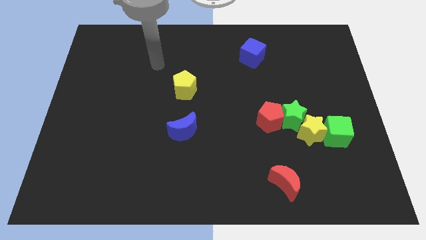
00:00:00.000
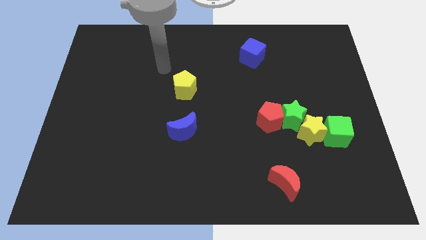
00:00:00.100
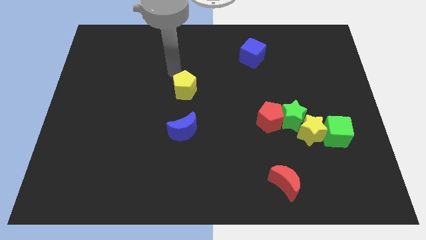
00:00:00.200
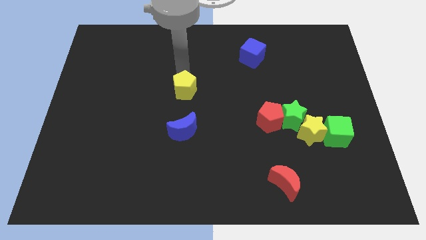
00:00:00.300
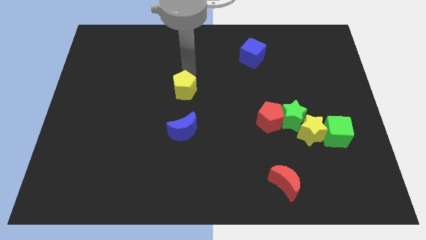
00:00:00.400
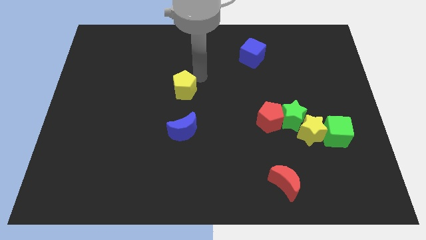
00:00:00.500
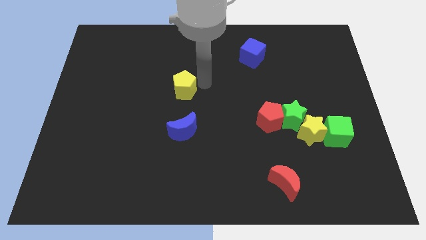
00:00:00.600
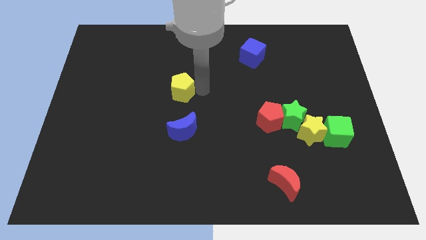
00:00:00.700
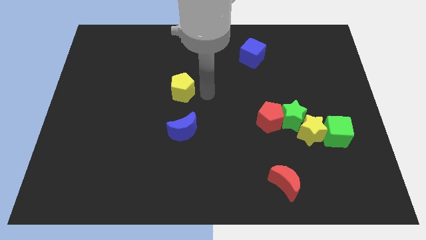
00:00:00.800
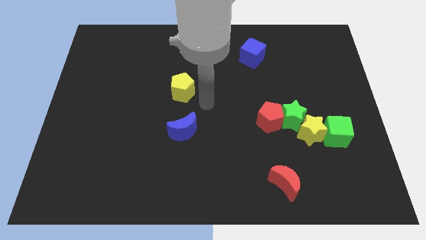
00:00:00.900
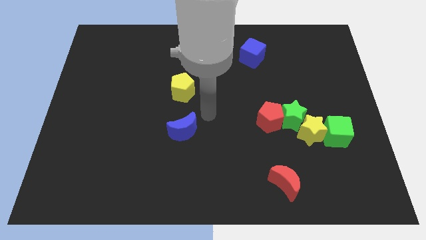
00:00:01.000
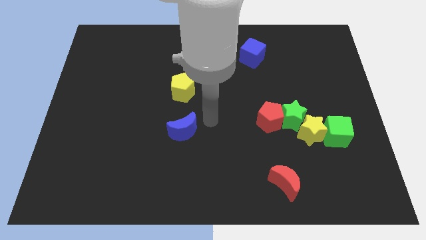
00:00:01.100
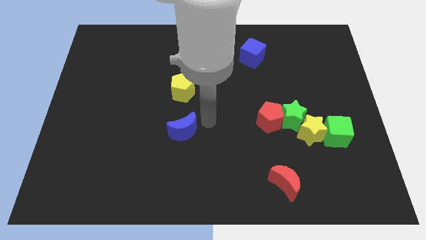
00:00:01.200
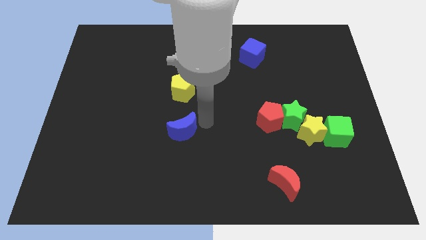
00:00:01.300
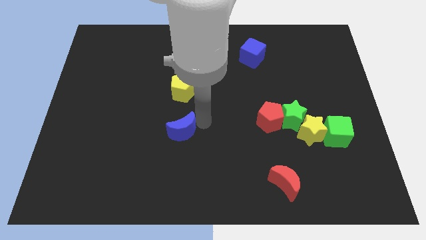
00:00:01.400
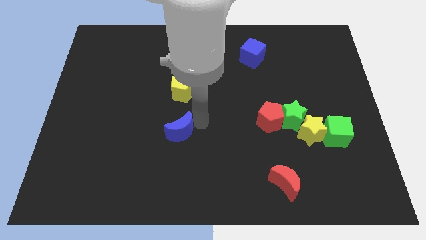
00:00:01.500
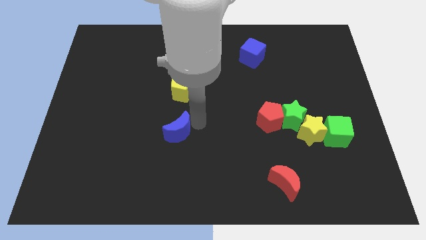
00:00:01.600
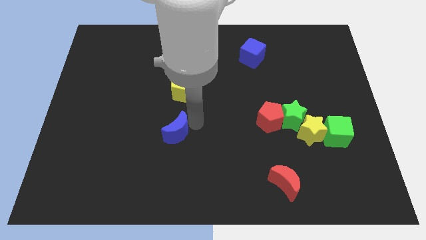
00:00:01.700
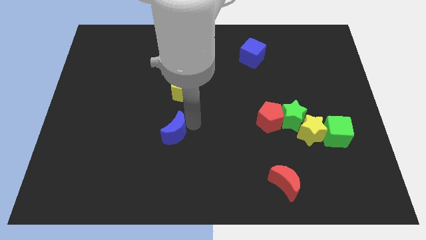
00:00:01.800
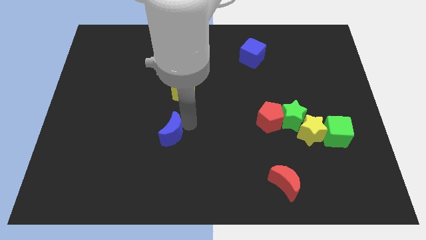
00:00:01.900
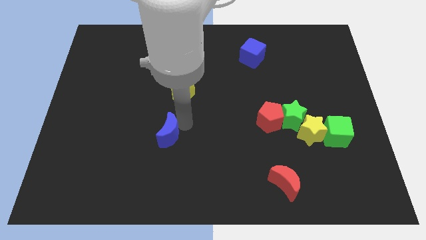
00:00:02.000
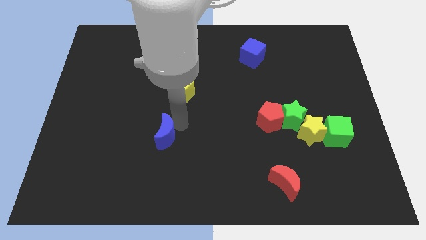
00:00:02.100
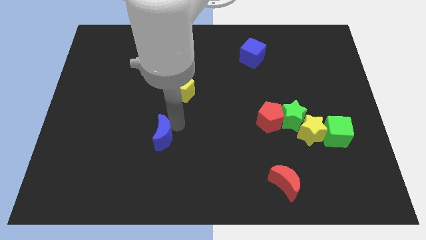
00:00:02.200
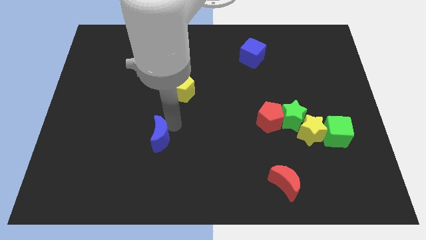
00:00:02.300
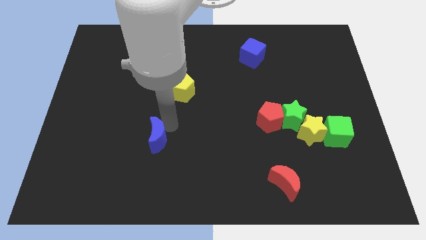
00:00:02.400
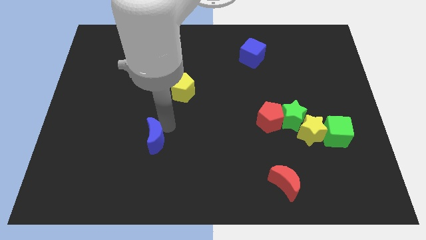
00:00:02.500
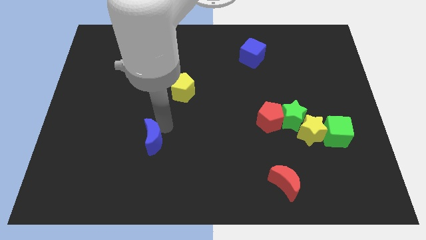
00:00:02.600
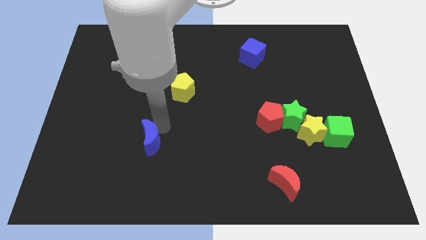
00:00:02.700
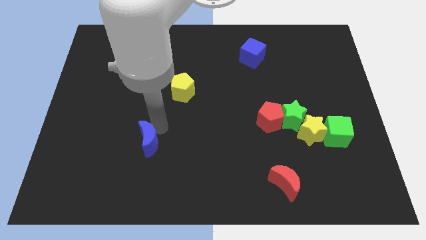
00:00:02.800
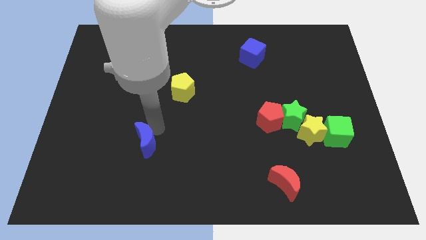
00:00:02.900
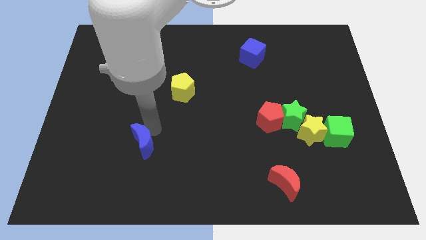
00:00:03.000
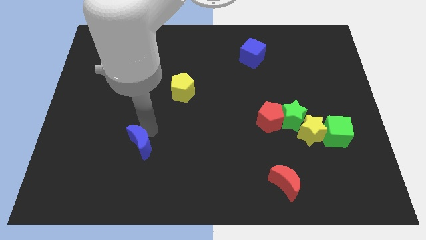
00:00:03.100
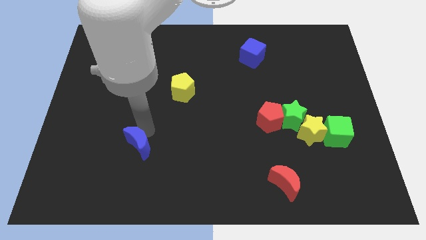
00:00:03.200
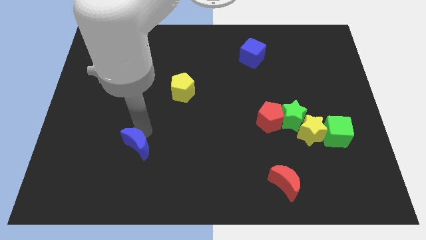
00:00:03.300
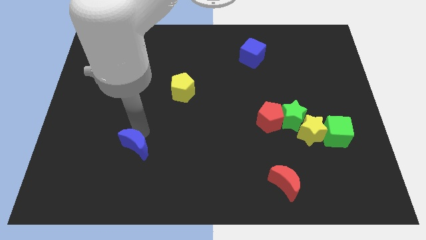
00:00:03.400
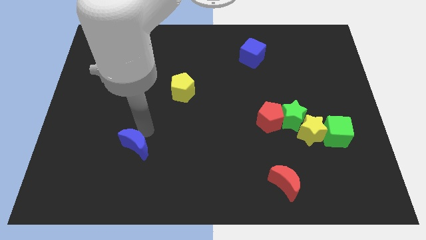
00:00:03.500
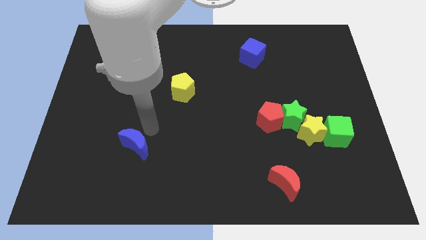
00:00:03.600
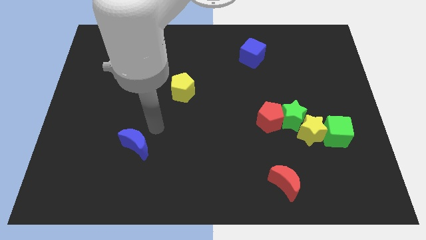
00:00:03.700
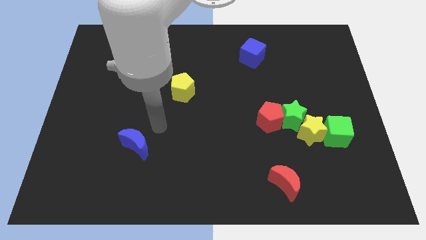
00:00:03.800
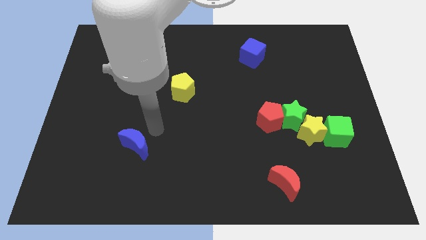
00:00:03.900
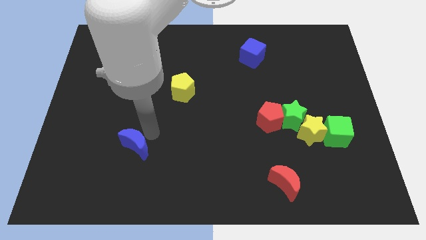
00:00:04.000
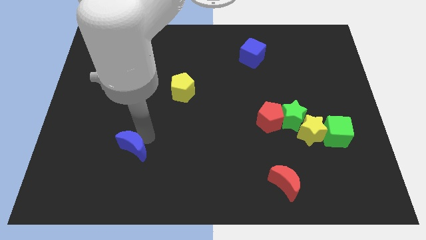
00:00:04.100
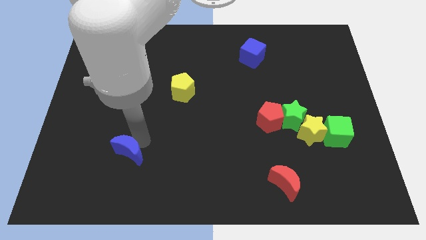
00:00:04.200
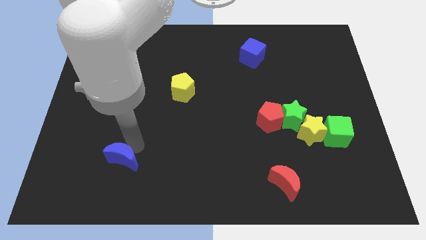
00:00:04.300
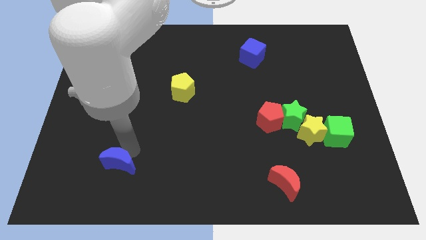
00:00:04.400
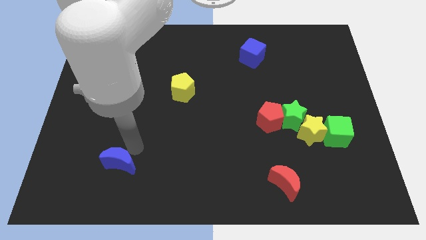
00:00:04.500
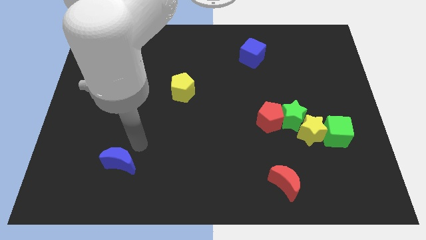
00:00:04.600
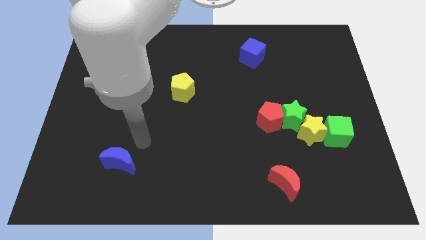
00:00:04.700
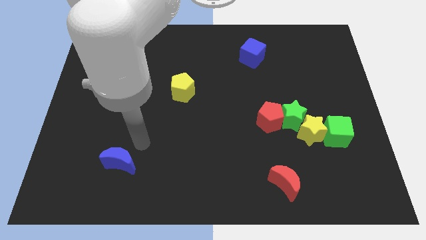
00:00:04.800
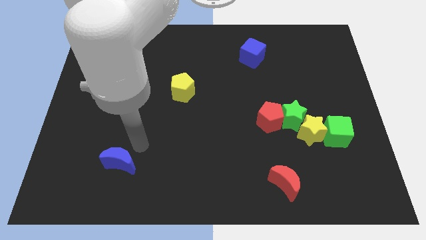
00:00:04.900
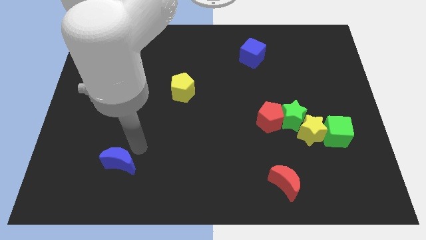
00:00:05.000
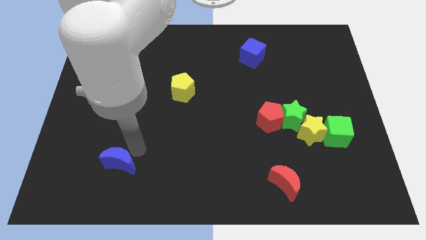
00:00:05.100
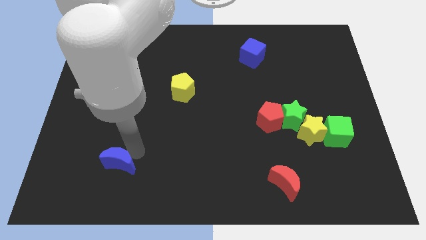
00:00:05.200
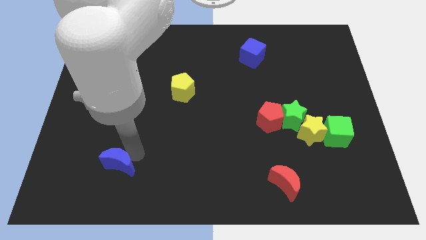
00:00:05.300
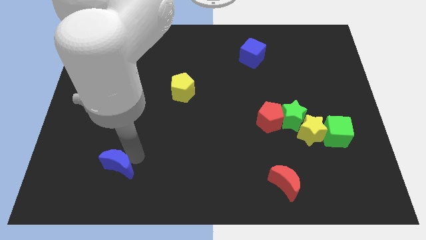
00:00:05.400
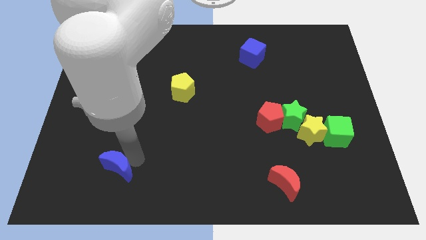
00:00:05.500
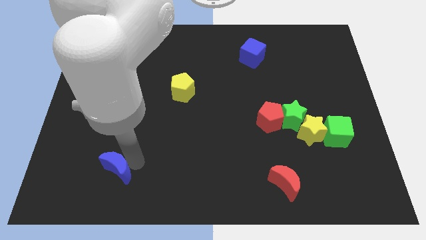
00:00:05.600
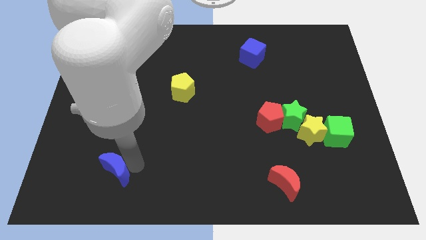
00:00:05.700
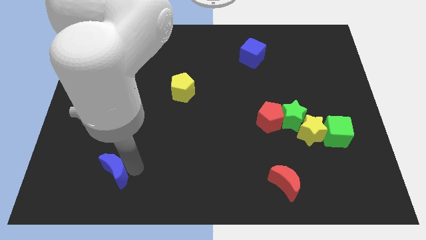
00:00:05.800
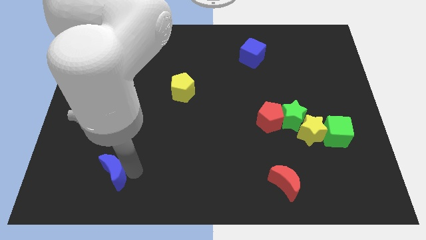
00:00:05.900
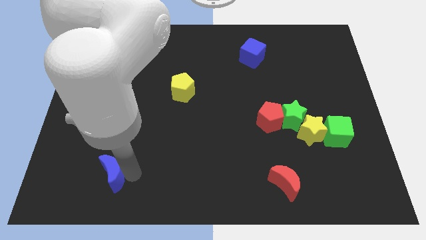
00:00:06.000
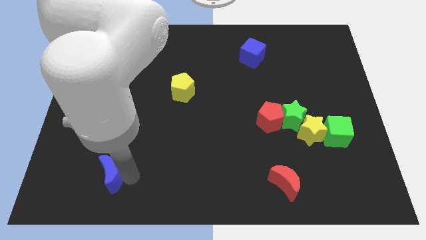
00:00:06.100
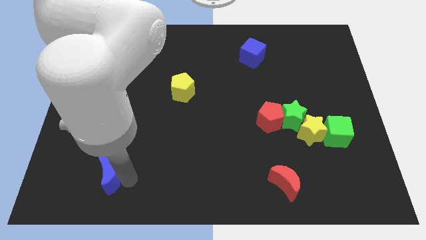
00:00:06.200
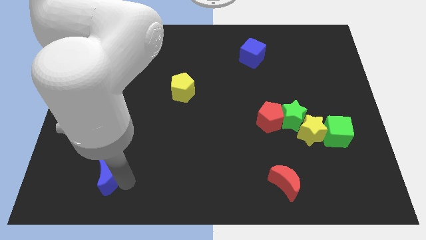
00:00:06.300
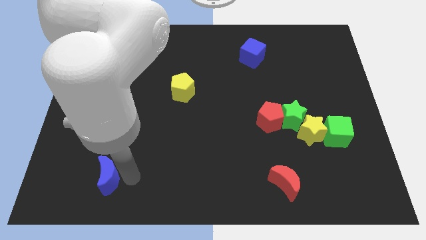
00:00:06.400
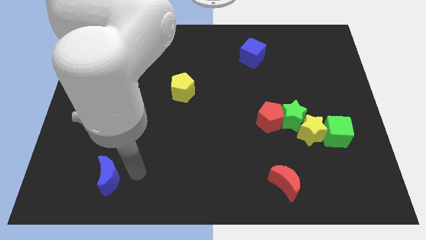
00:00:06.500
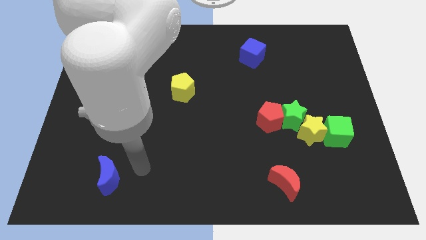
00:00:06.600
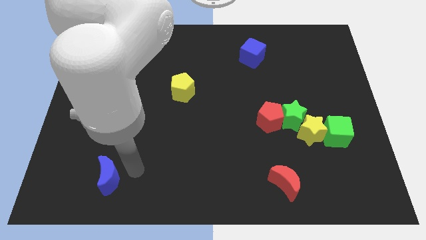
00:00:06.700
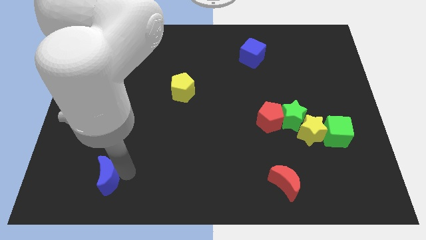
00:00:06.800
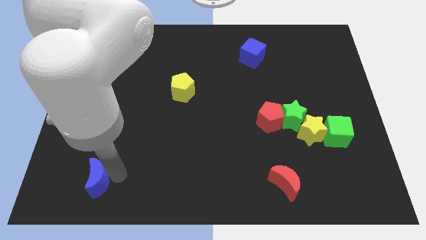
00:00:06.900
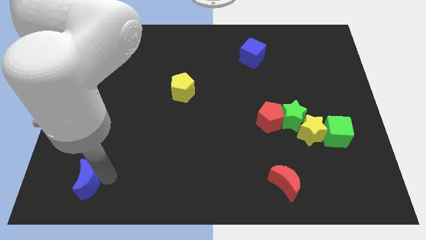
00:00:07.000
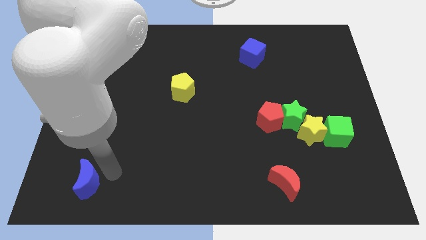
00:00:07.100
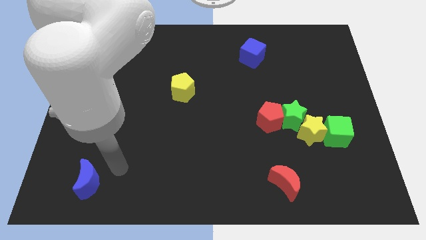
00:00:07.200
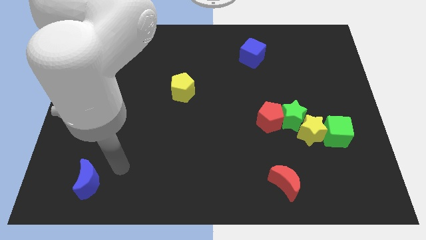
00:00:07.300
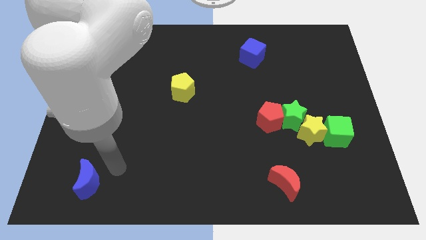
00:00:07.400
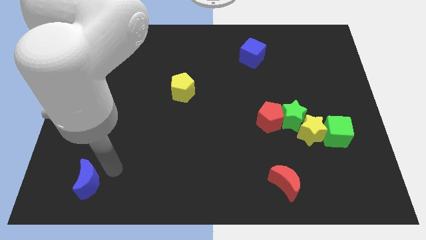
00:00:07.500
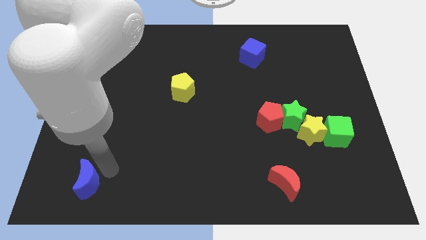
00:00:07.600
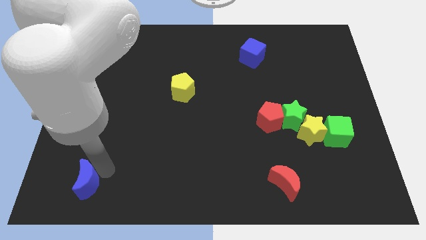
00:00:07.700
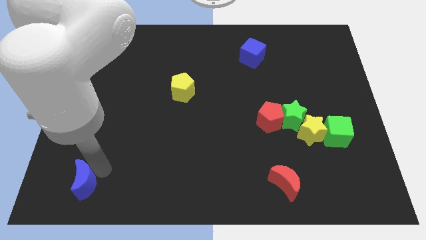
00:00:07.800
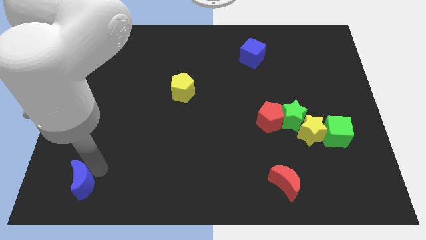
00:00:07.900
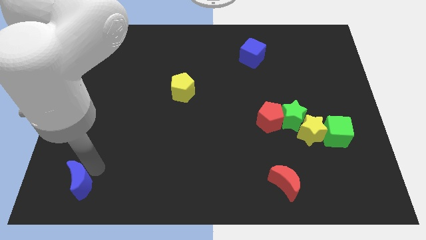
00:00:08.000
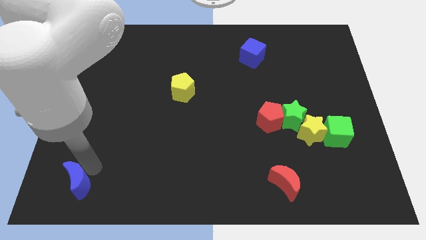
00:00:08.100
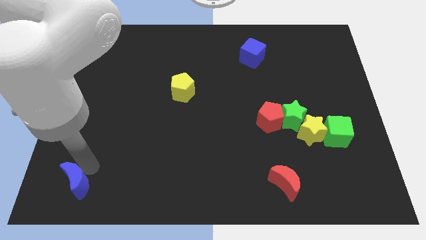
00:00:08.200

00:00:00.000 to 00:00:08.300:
put the blue moon to the bottom left
